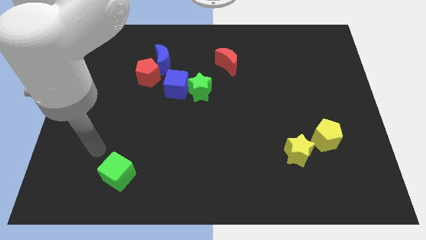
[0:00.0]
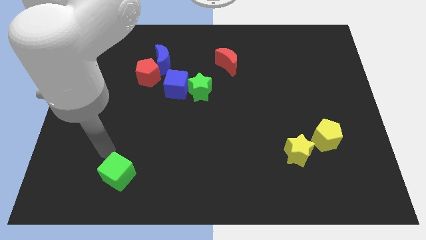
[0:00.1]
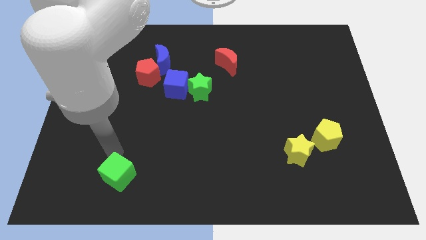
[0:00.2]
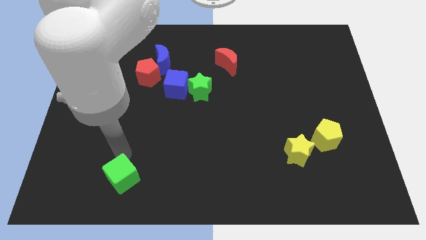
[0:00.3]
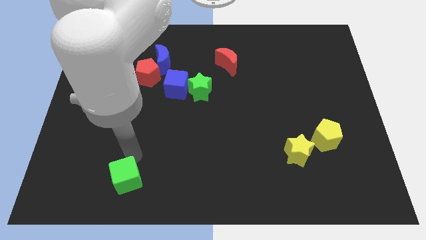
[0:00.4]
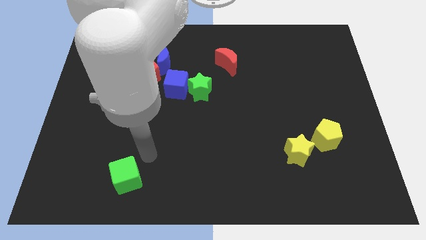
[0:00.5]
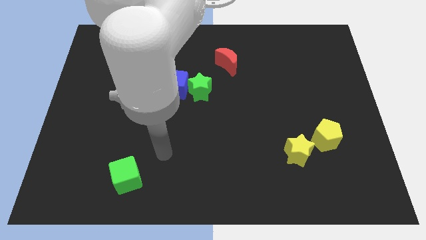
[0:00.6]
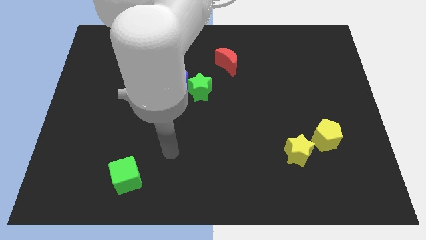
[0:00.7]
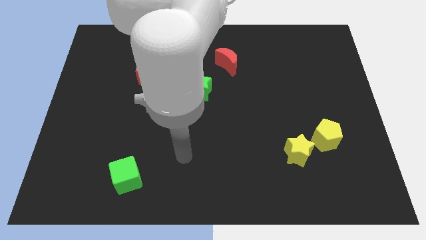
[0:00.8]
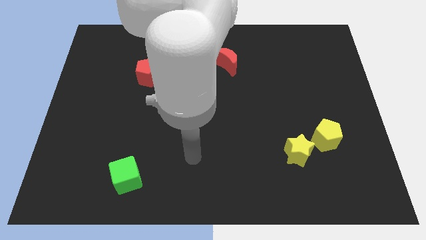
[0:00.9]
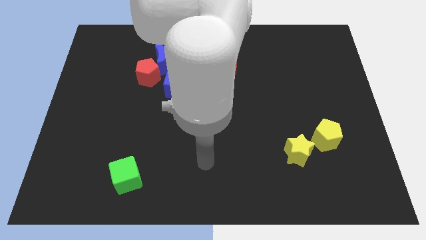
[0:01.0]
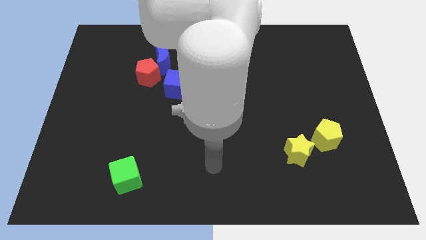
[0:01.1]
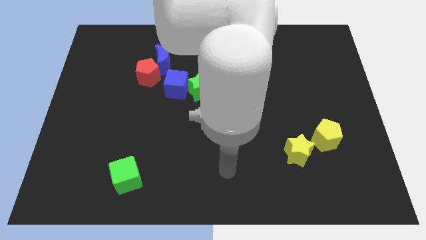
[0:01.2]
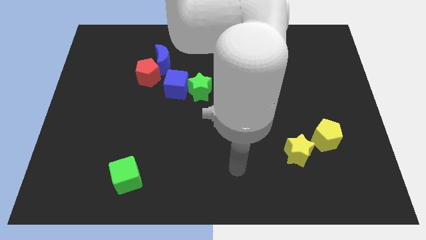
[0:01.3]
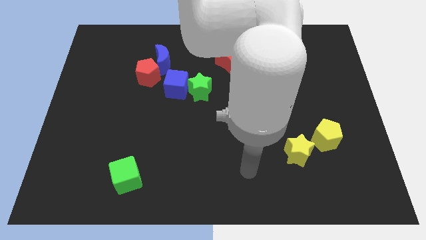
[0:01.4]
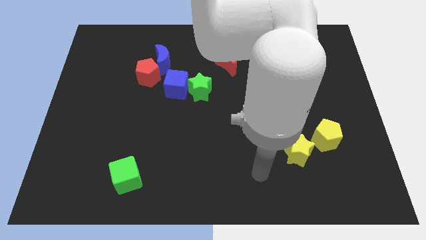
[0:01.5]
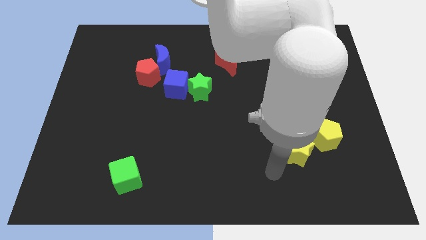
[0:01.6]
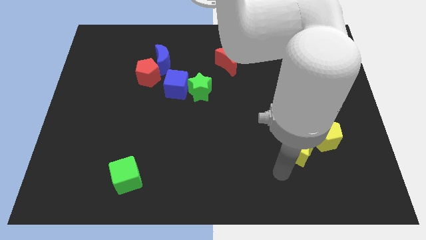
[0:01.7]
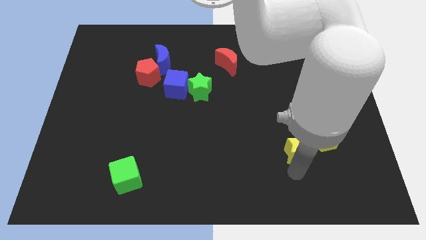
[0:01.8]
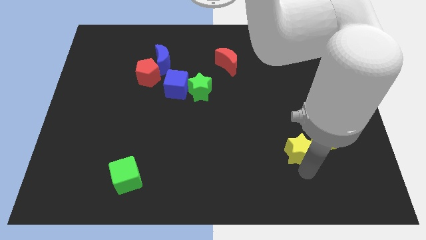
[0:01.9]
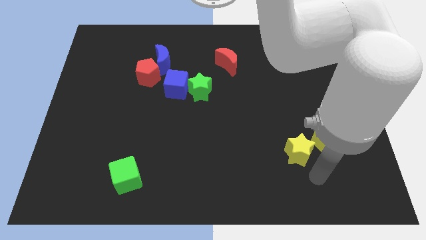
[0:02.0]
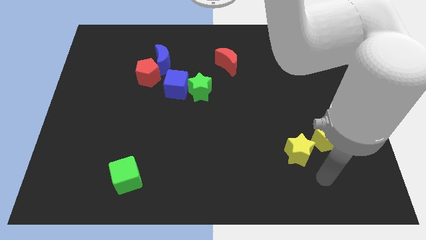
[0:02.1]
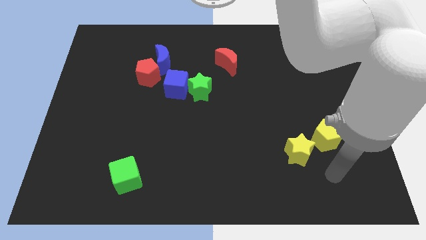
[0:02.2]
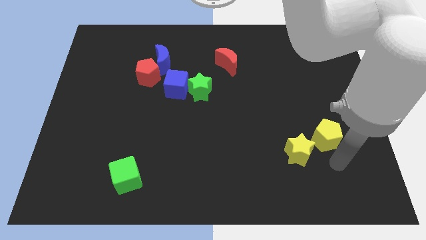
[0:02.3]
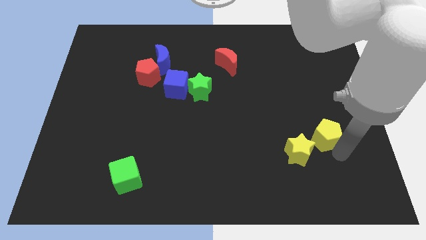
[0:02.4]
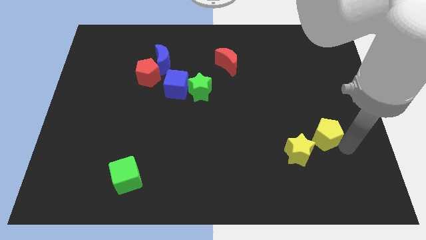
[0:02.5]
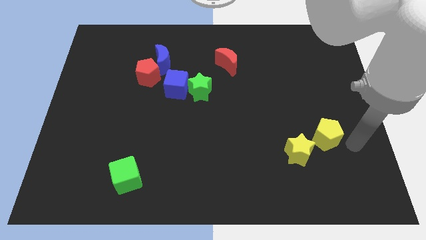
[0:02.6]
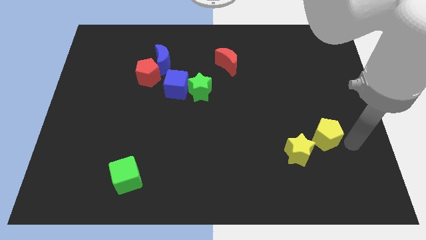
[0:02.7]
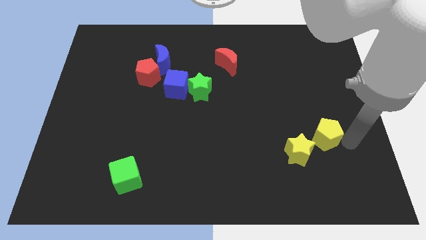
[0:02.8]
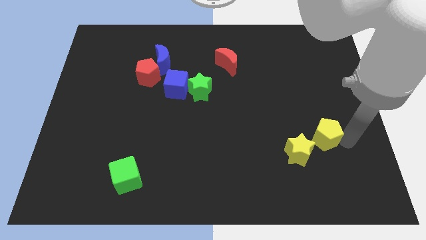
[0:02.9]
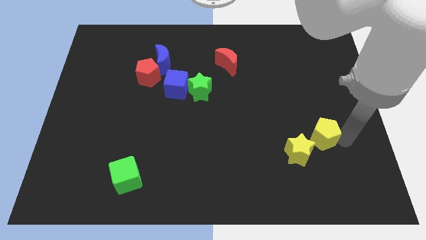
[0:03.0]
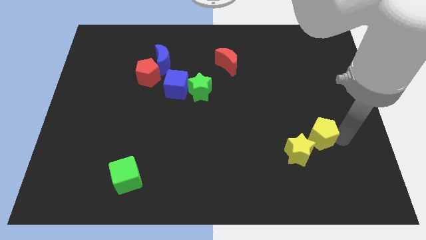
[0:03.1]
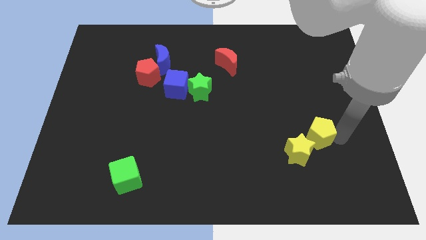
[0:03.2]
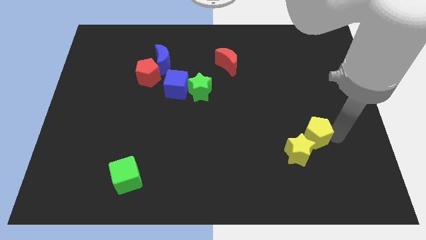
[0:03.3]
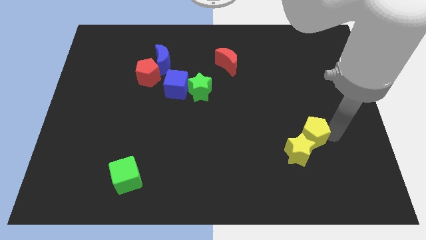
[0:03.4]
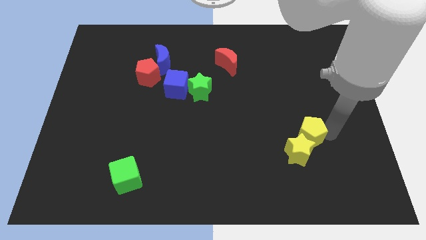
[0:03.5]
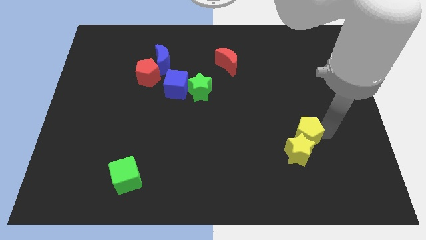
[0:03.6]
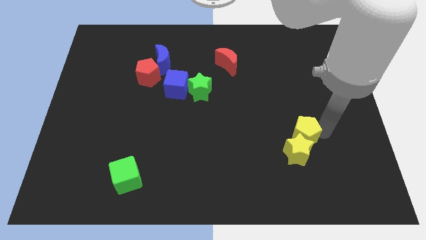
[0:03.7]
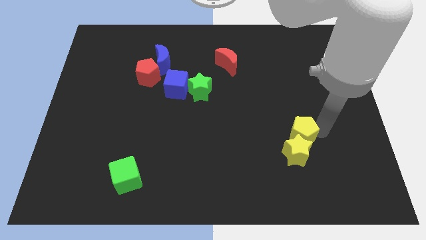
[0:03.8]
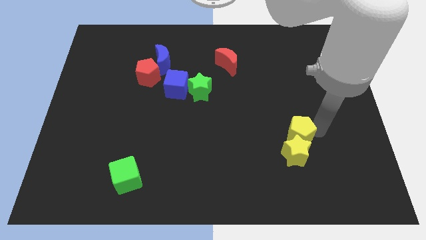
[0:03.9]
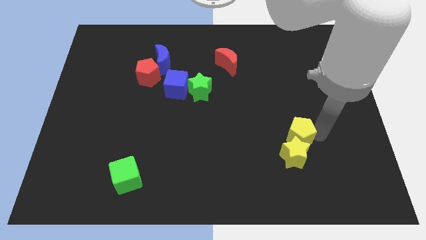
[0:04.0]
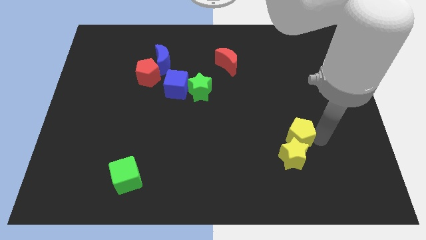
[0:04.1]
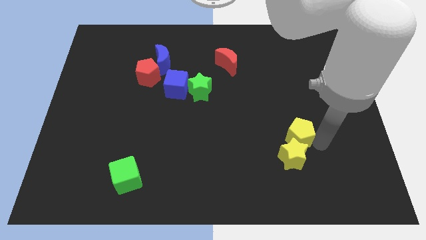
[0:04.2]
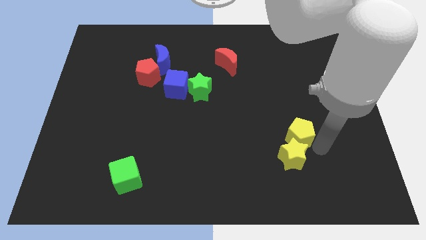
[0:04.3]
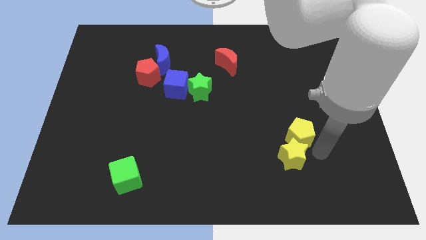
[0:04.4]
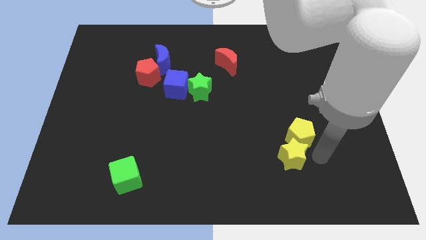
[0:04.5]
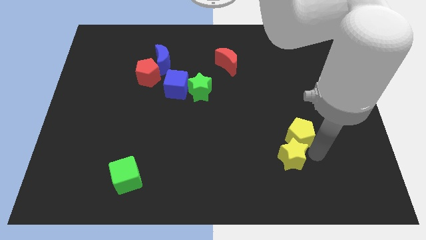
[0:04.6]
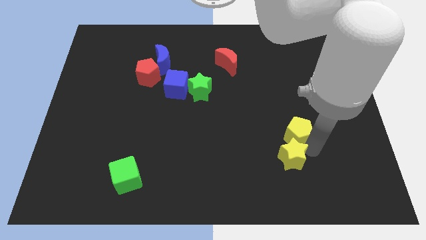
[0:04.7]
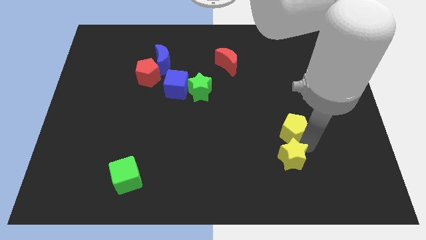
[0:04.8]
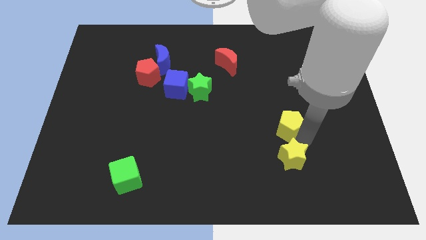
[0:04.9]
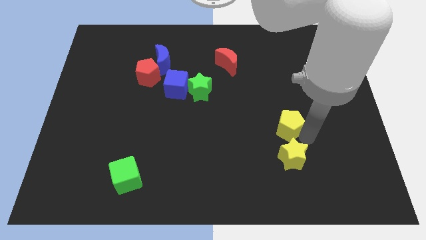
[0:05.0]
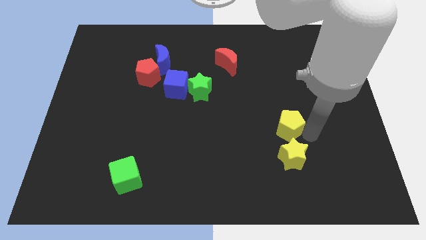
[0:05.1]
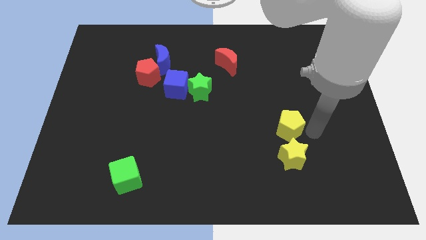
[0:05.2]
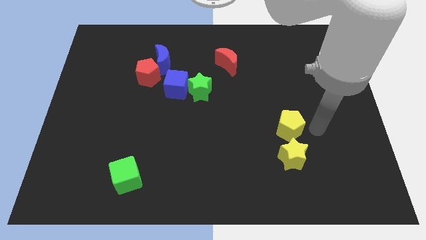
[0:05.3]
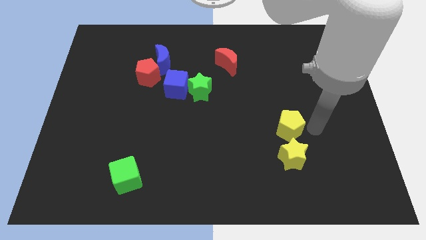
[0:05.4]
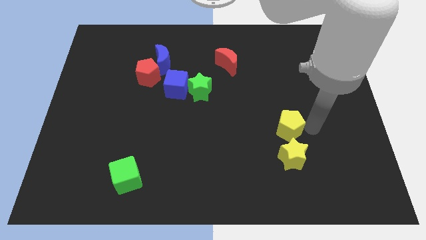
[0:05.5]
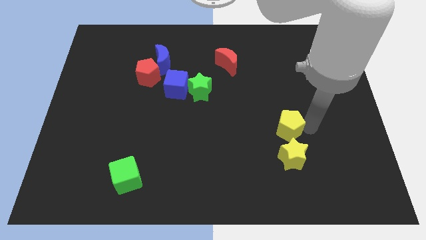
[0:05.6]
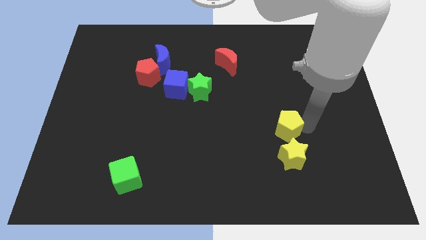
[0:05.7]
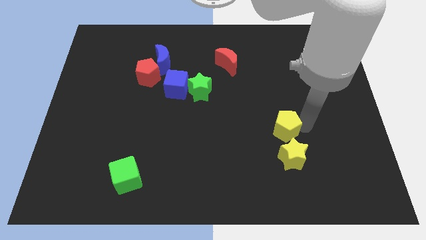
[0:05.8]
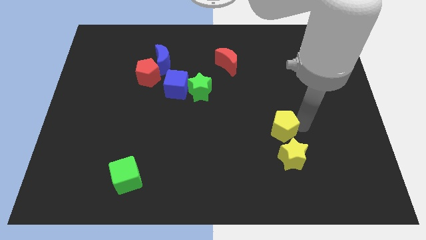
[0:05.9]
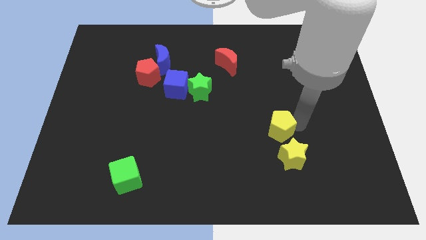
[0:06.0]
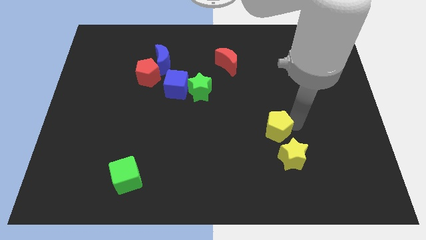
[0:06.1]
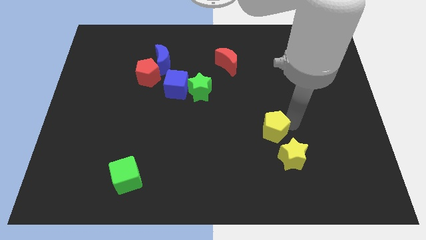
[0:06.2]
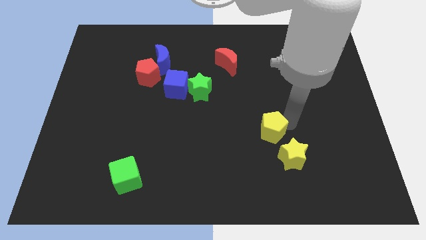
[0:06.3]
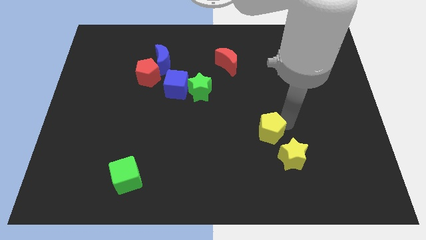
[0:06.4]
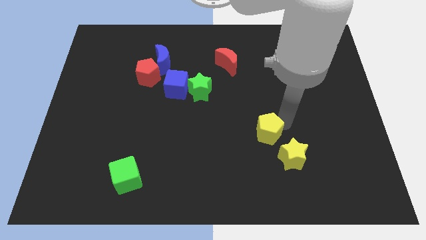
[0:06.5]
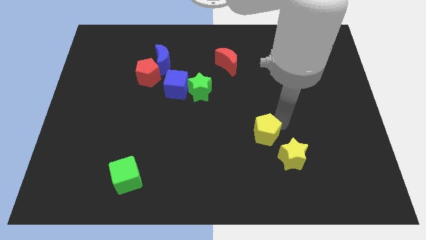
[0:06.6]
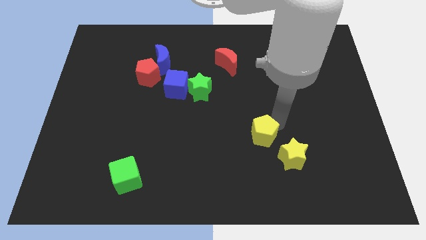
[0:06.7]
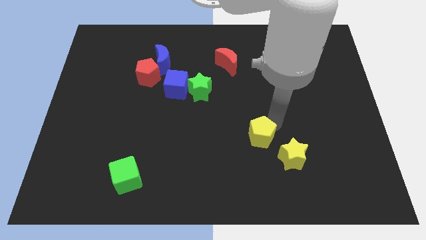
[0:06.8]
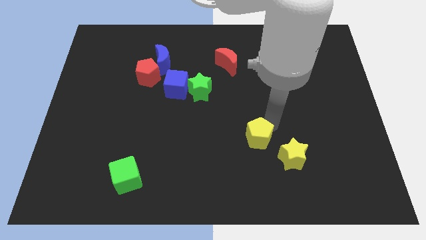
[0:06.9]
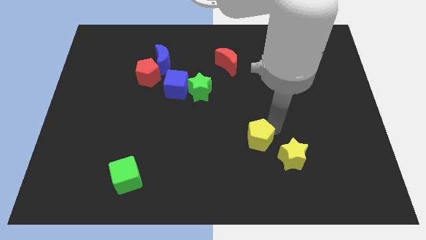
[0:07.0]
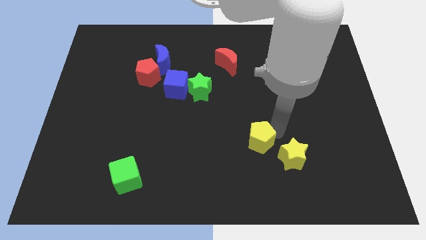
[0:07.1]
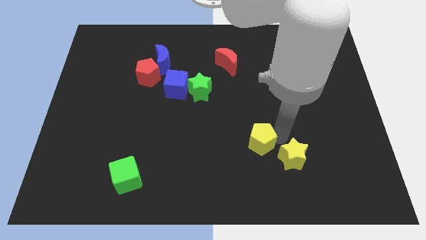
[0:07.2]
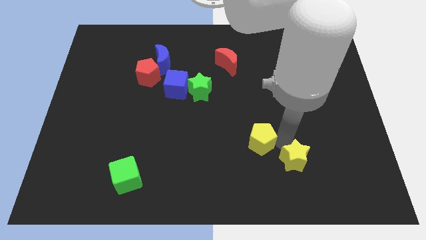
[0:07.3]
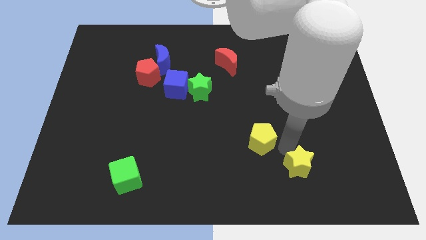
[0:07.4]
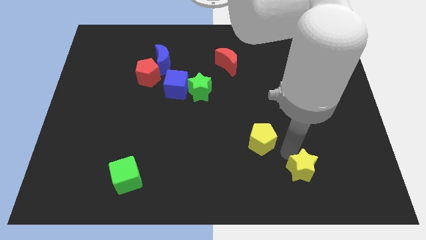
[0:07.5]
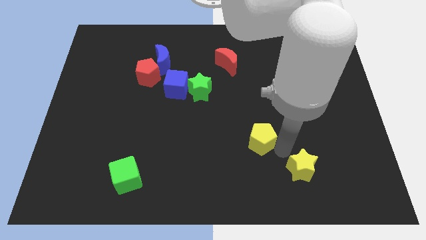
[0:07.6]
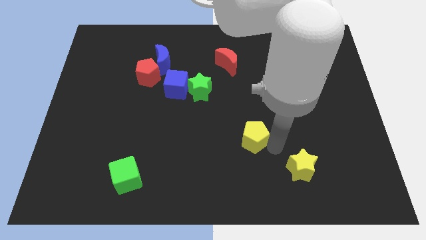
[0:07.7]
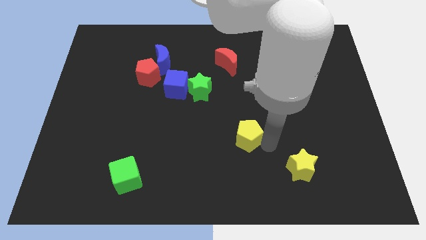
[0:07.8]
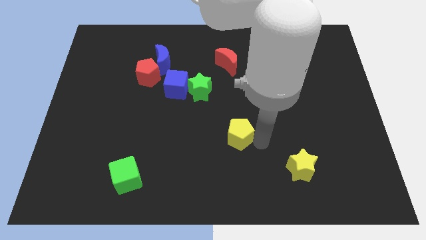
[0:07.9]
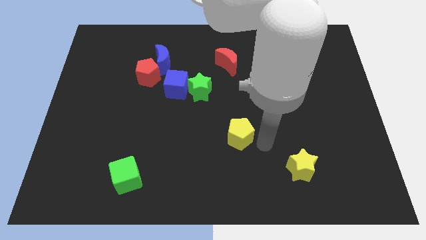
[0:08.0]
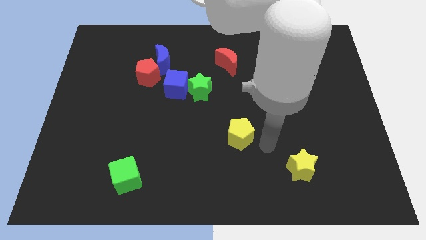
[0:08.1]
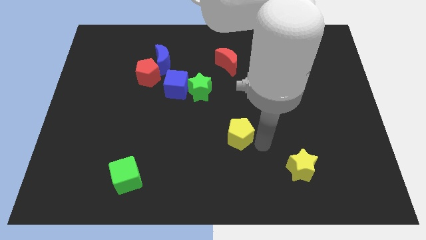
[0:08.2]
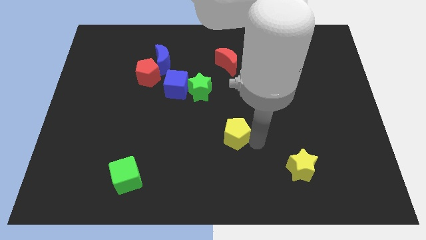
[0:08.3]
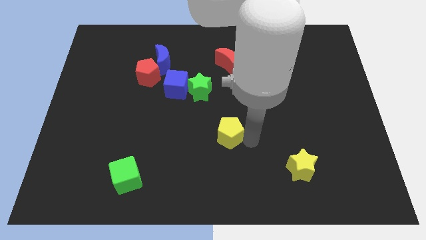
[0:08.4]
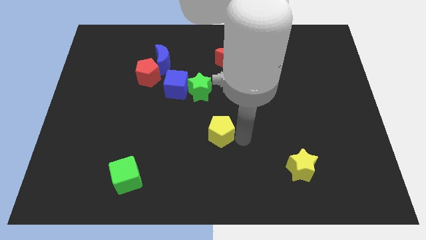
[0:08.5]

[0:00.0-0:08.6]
slide the yellow pentagon below the green star
